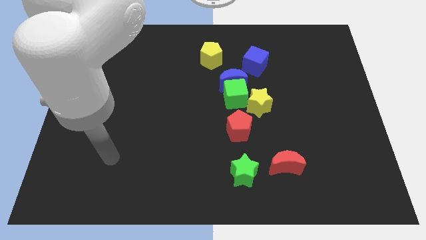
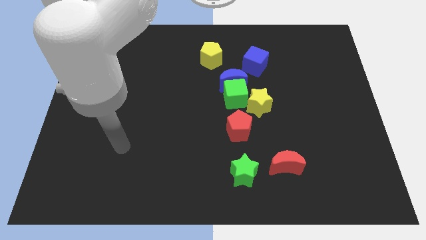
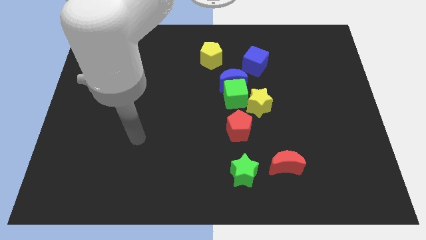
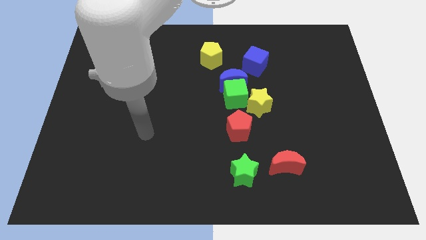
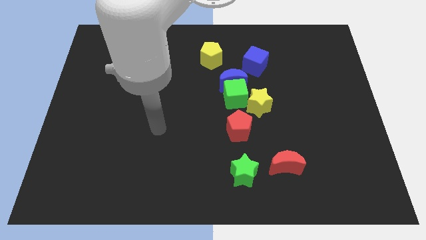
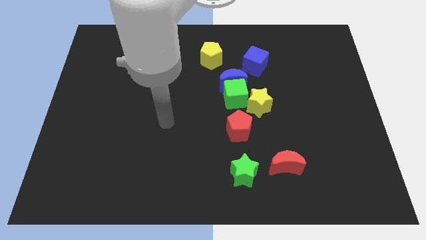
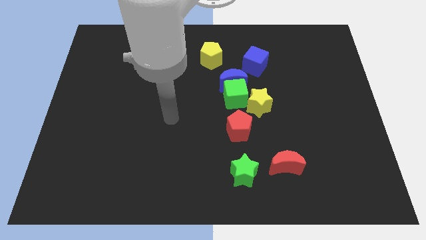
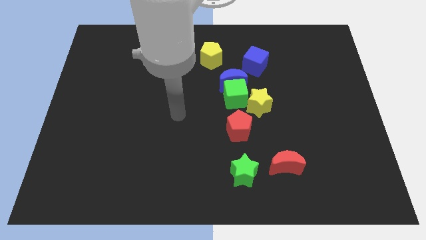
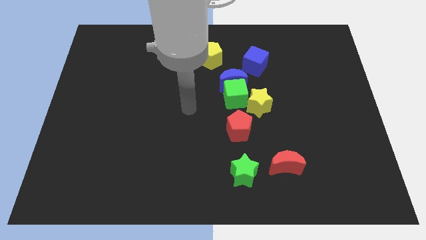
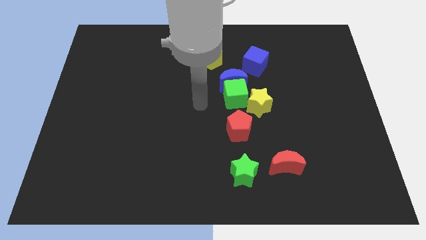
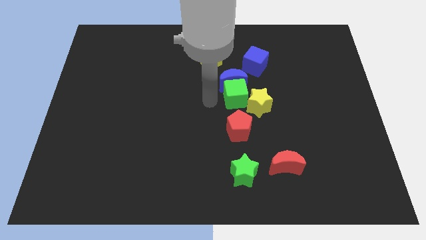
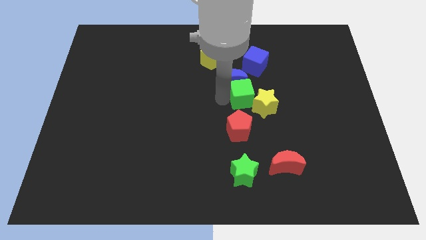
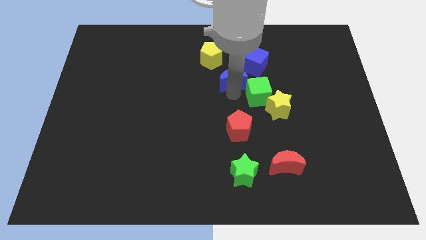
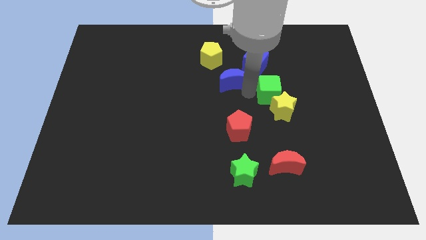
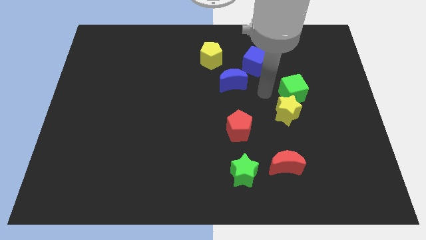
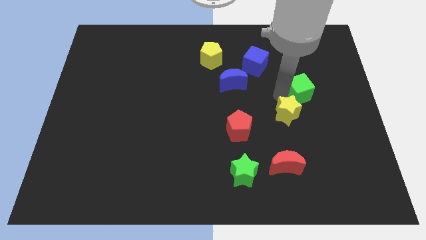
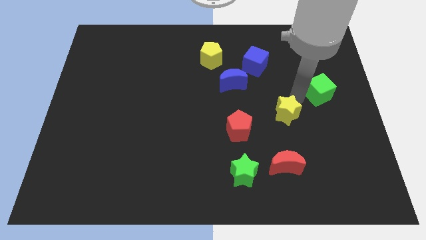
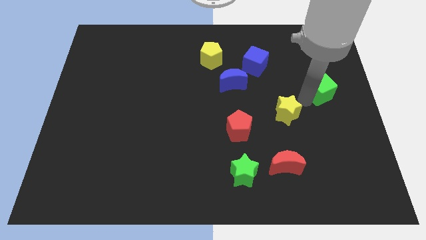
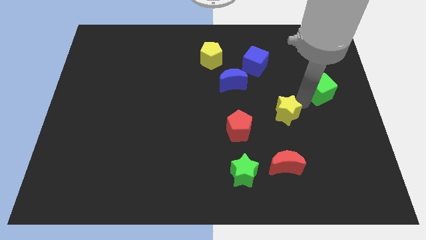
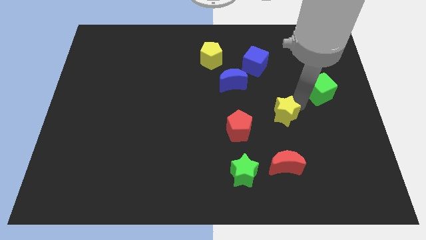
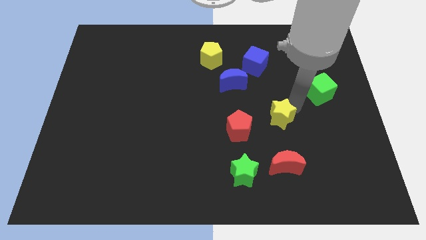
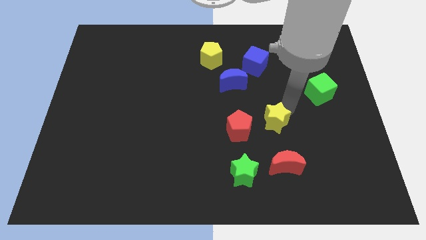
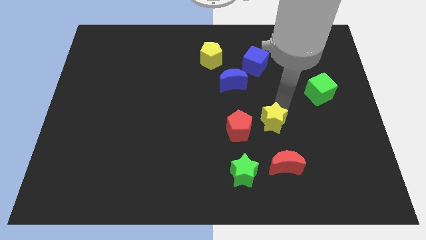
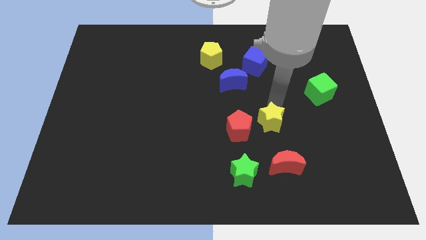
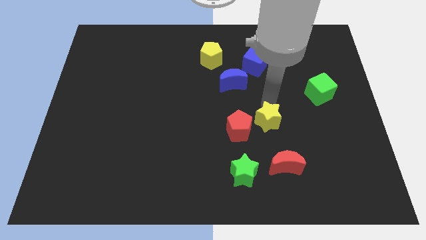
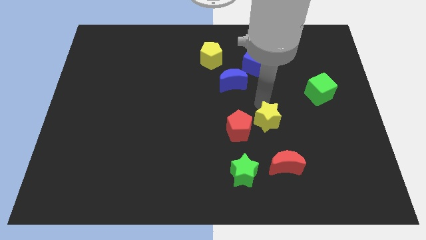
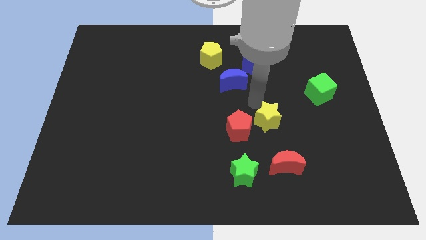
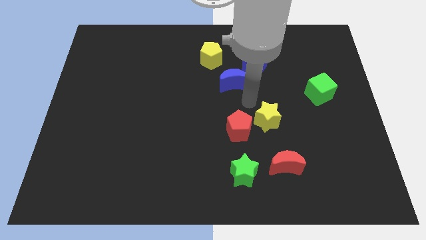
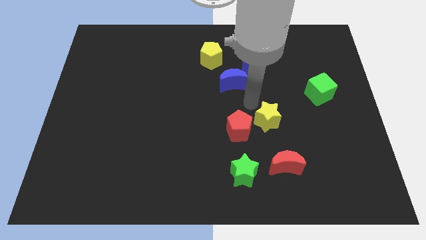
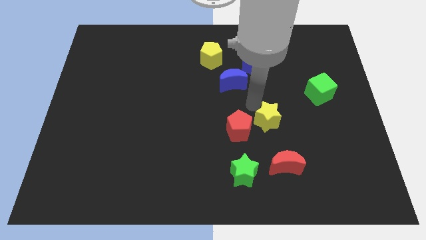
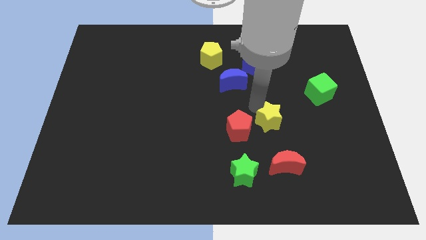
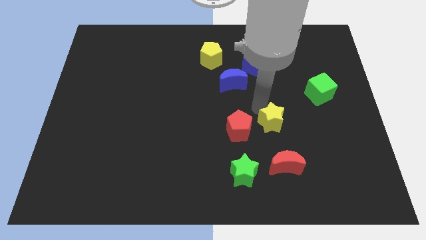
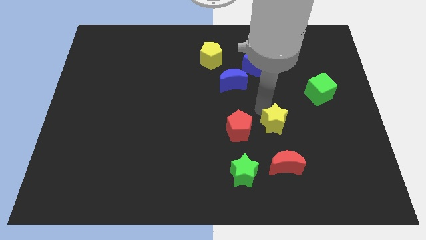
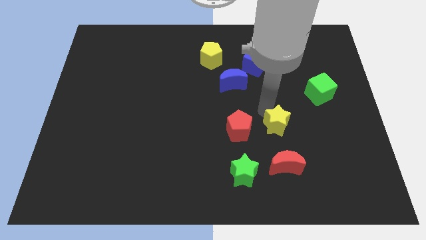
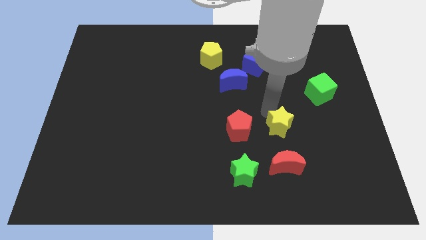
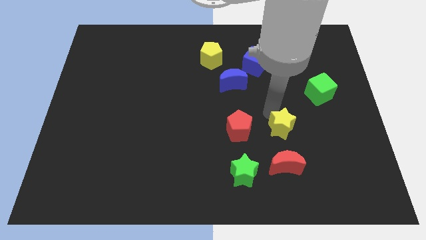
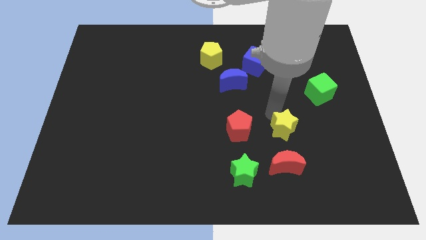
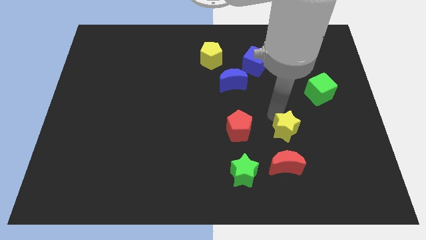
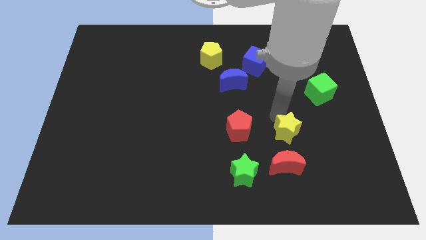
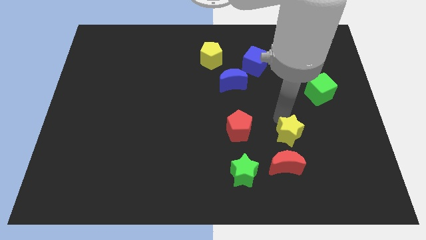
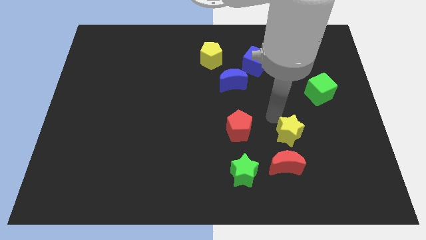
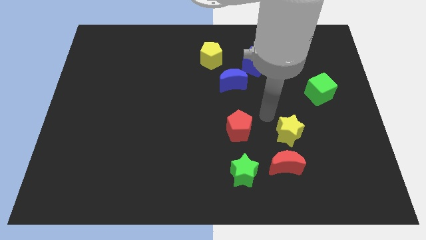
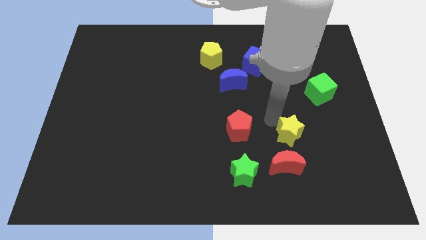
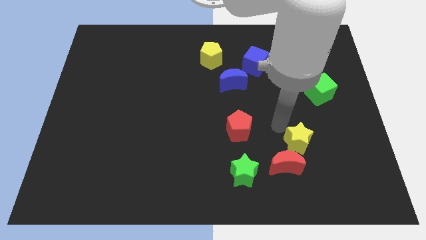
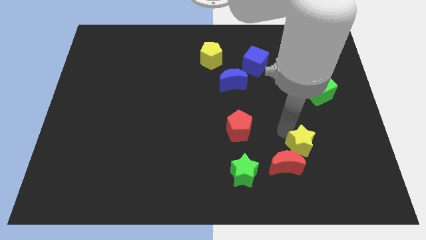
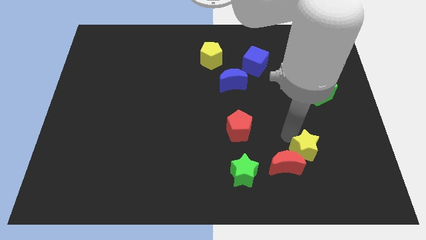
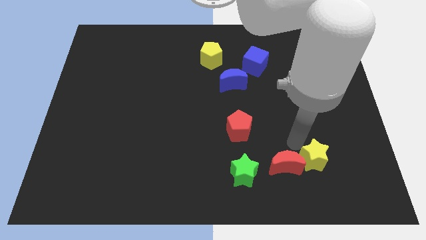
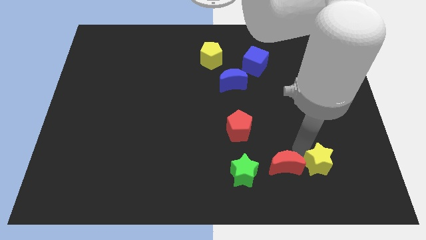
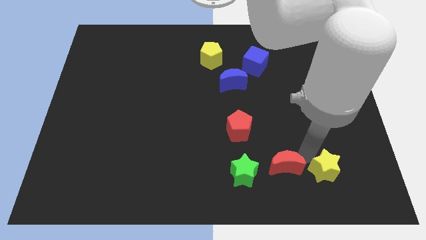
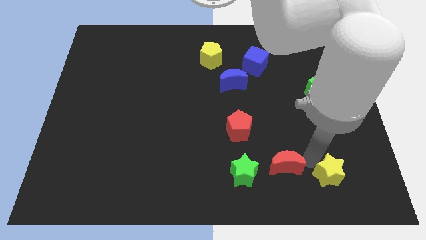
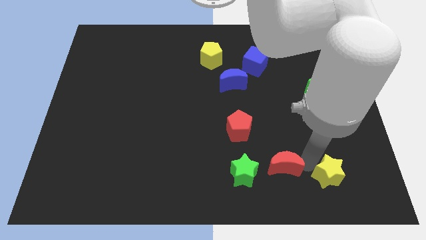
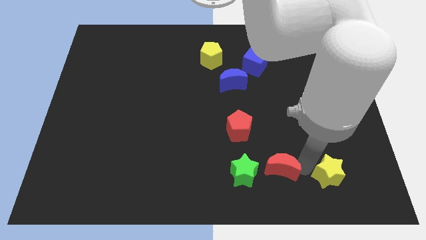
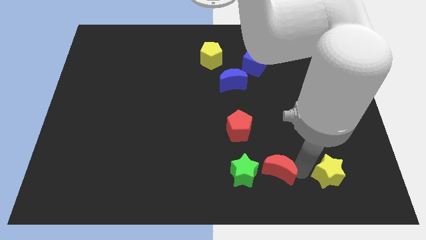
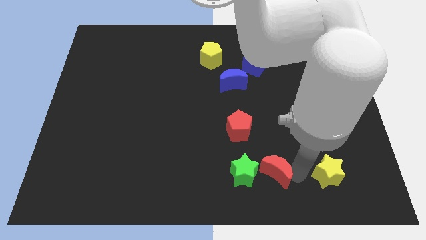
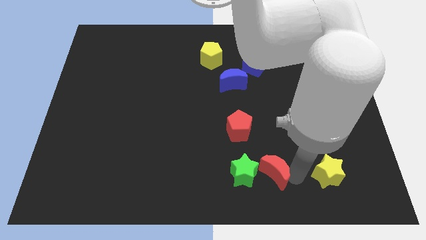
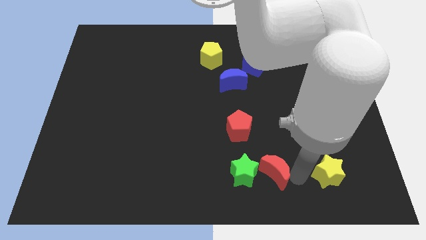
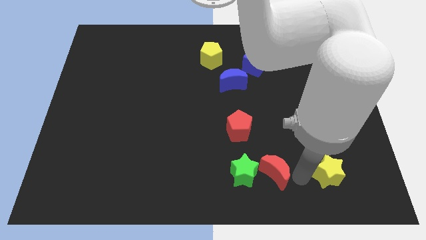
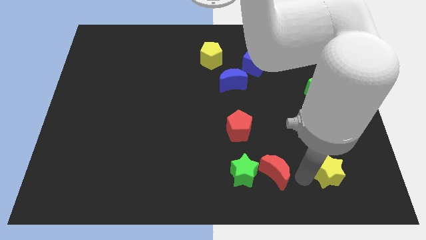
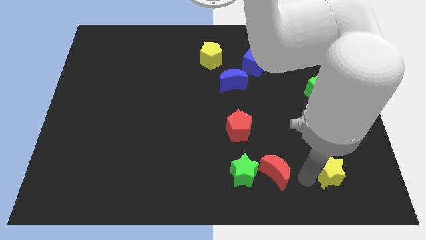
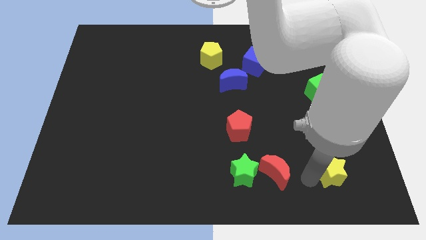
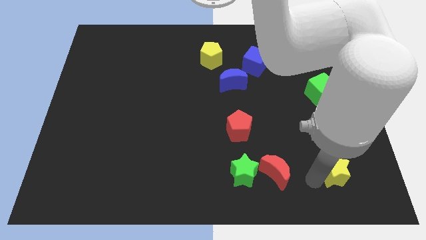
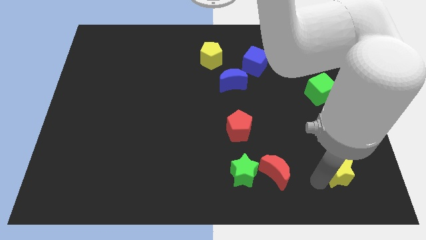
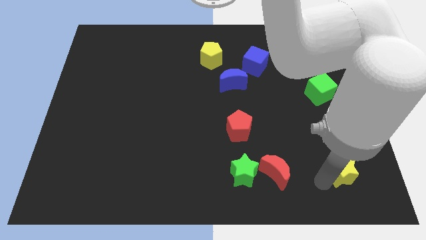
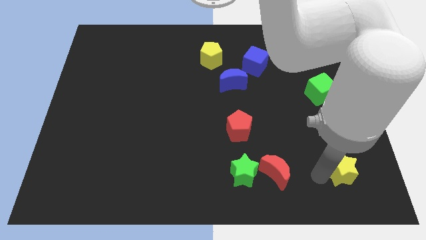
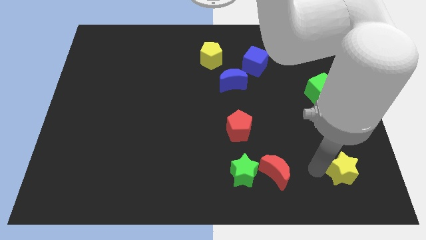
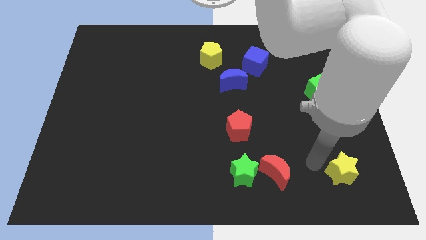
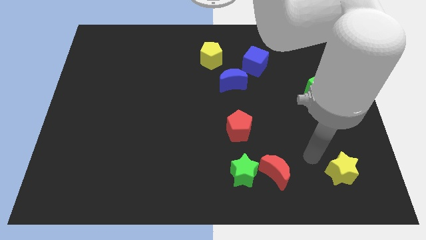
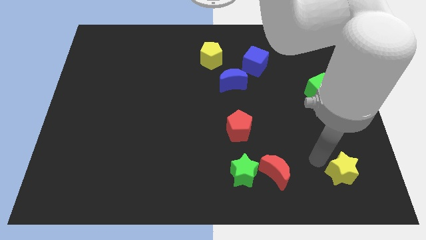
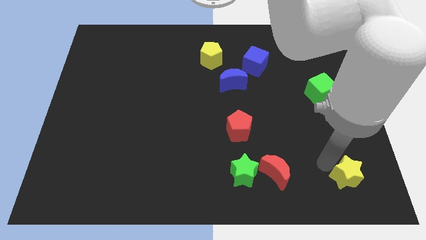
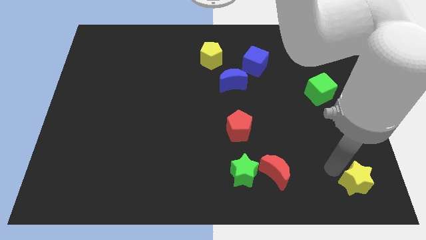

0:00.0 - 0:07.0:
push the yellow star to the lower right corner
